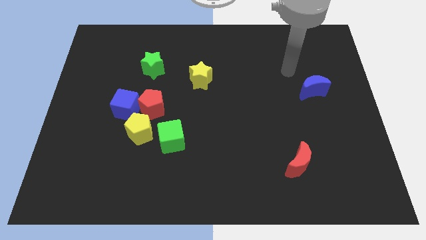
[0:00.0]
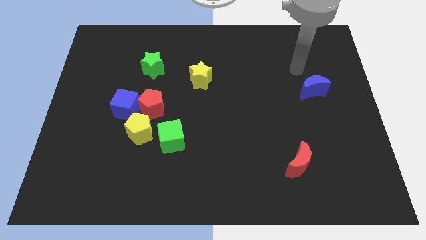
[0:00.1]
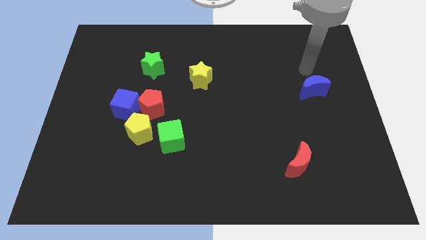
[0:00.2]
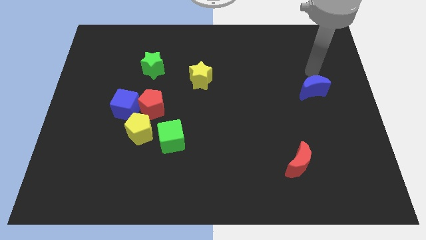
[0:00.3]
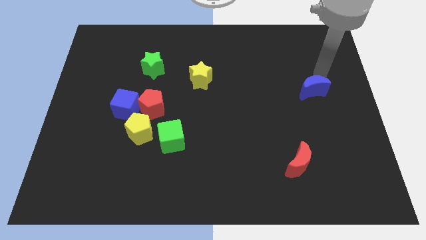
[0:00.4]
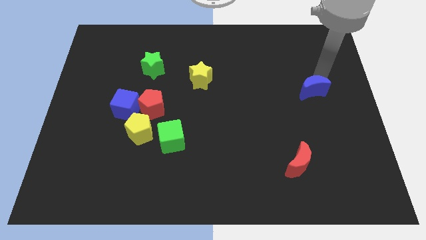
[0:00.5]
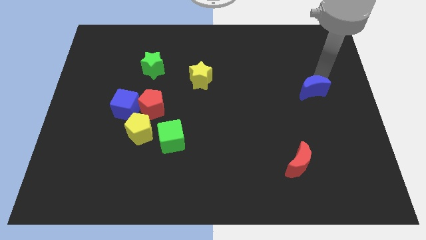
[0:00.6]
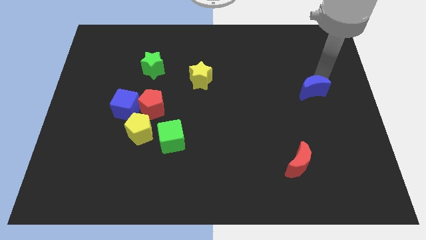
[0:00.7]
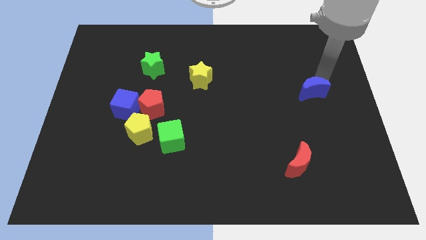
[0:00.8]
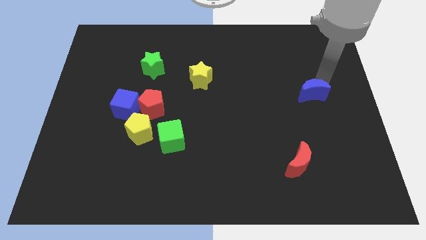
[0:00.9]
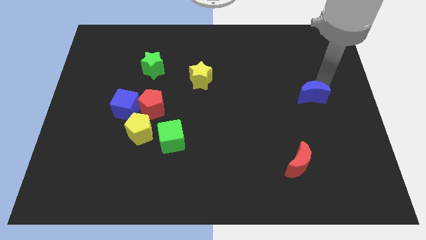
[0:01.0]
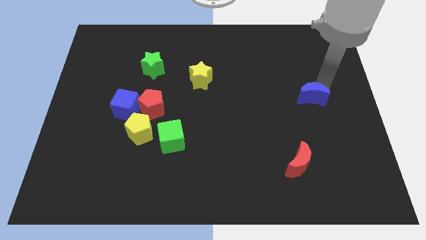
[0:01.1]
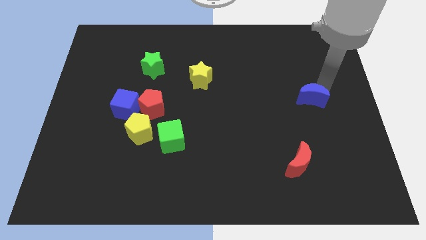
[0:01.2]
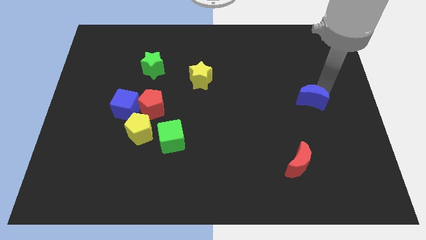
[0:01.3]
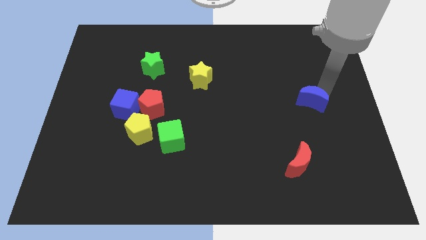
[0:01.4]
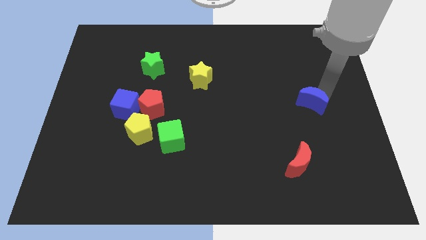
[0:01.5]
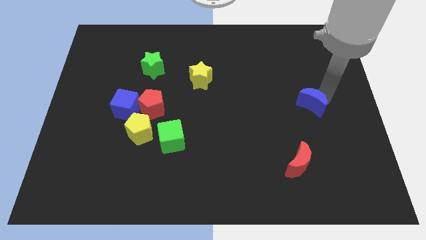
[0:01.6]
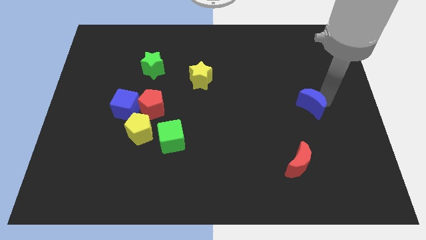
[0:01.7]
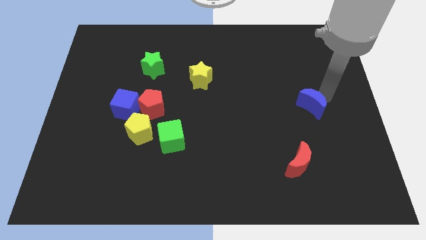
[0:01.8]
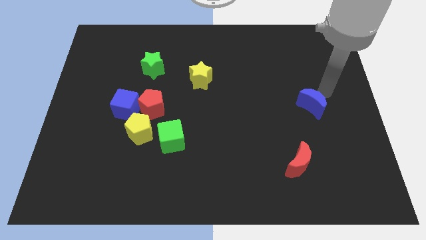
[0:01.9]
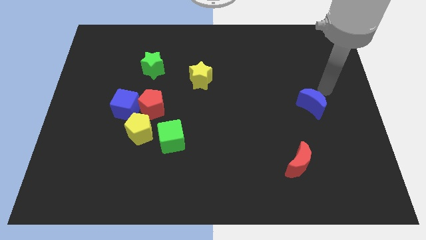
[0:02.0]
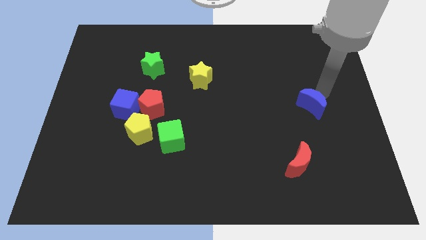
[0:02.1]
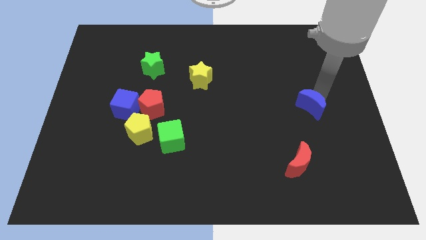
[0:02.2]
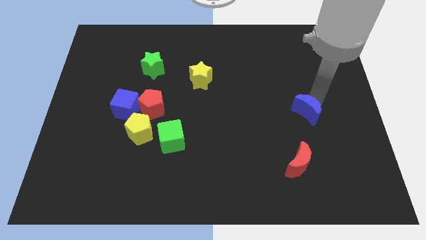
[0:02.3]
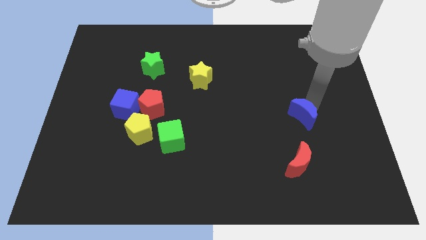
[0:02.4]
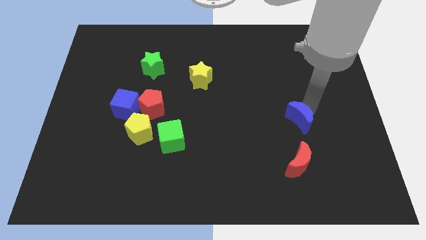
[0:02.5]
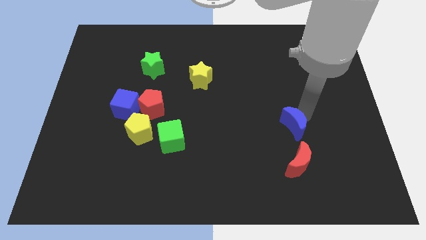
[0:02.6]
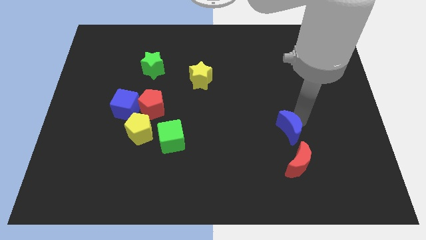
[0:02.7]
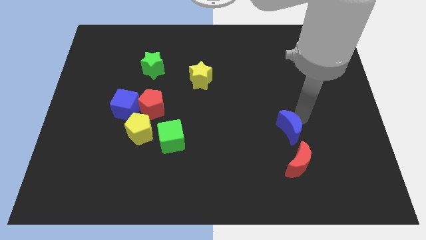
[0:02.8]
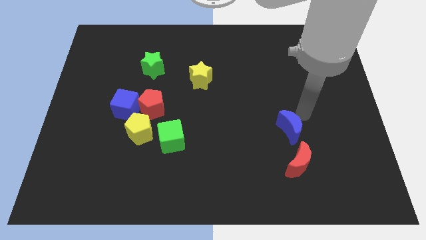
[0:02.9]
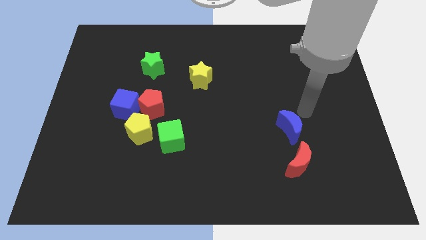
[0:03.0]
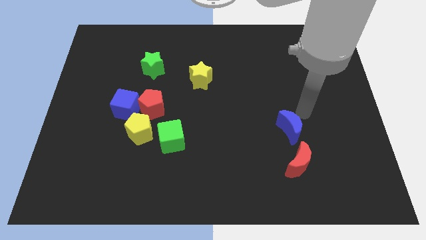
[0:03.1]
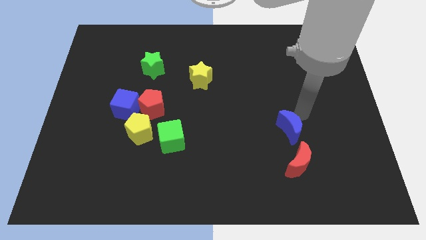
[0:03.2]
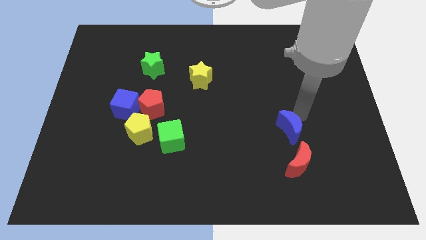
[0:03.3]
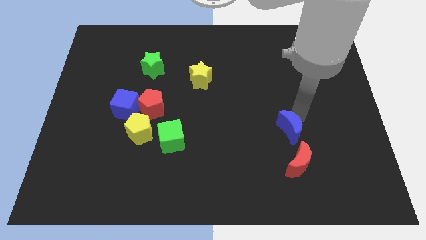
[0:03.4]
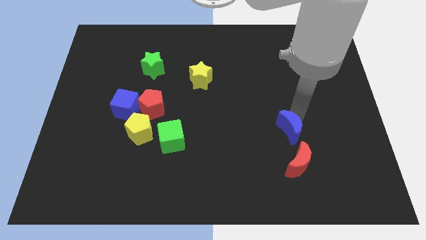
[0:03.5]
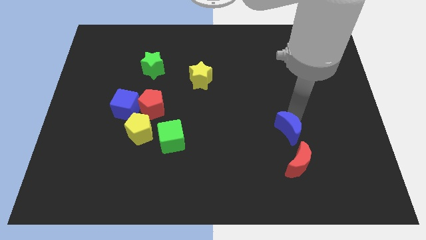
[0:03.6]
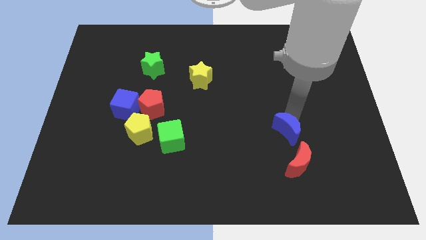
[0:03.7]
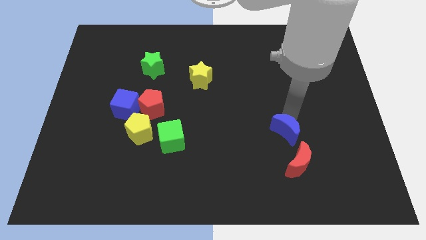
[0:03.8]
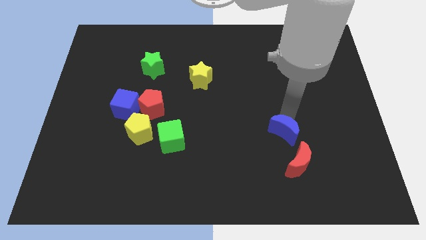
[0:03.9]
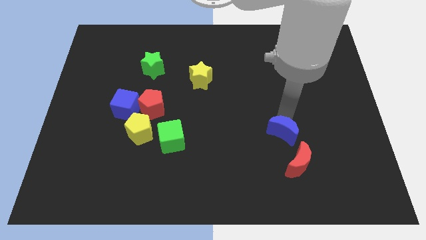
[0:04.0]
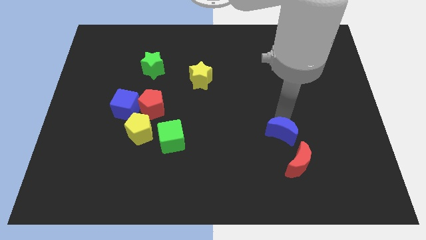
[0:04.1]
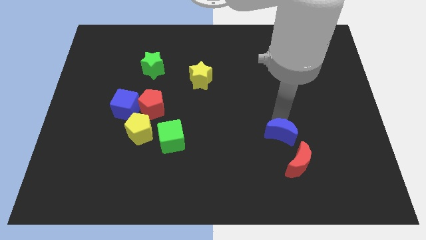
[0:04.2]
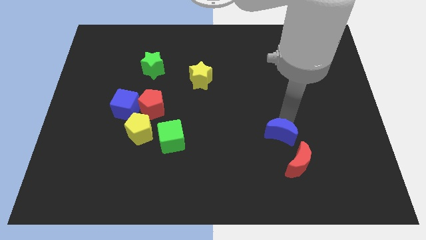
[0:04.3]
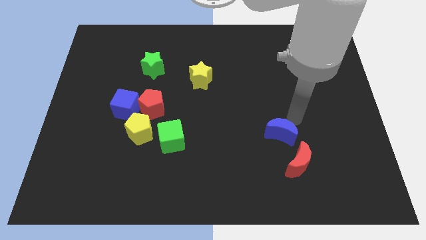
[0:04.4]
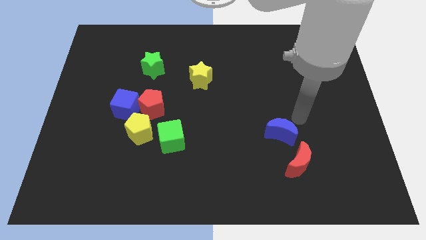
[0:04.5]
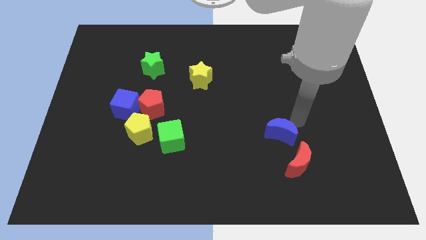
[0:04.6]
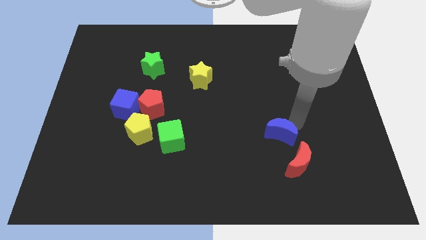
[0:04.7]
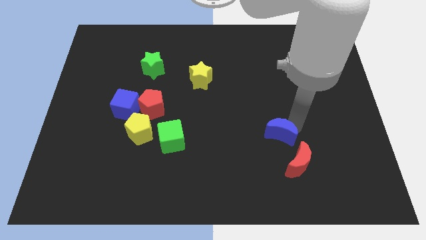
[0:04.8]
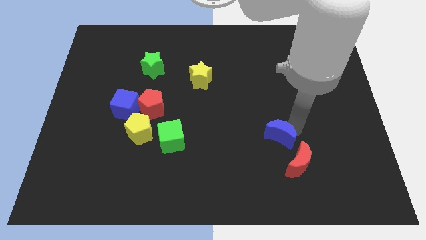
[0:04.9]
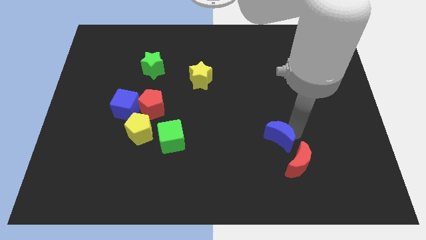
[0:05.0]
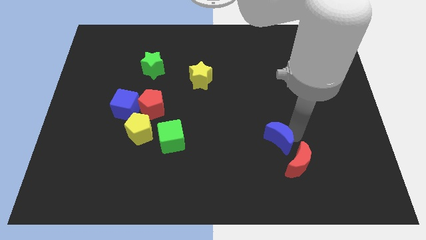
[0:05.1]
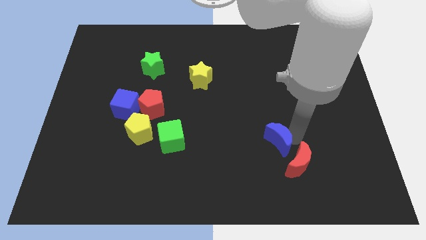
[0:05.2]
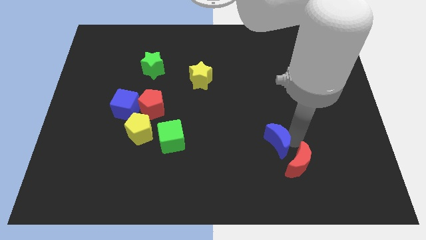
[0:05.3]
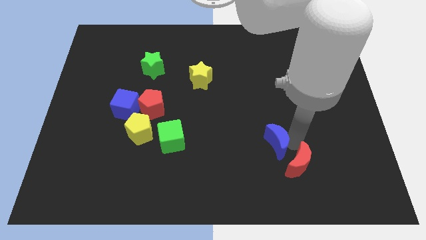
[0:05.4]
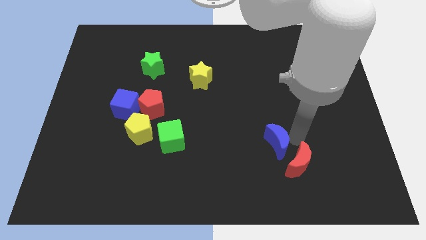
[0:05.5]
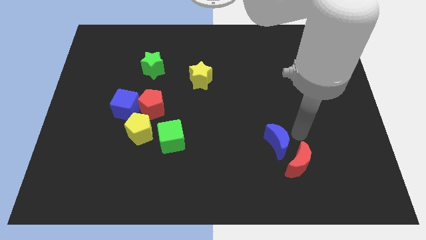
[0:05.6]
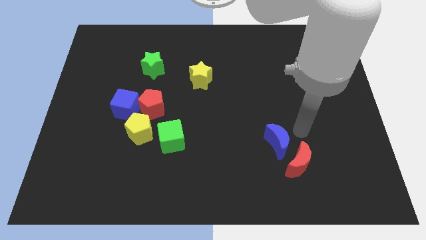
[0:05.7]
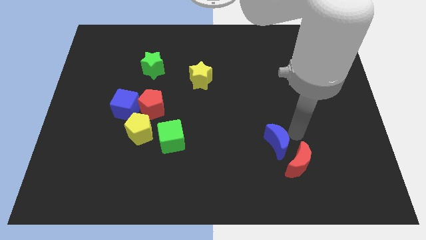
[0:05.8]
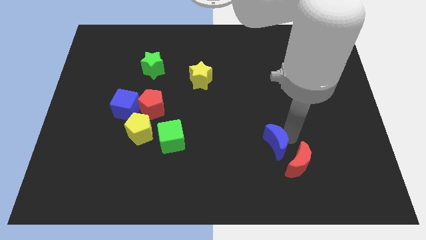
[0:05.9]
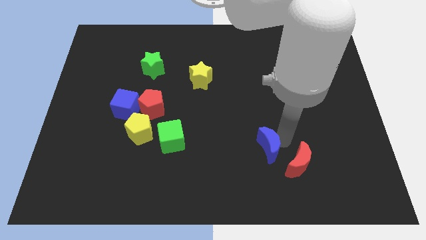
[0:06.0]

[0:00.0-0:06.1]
move the blue moon down and then left

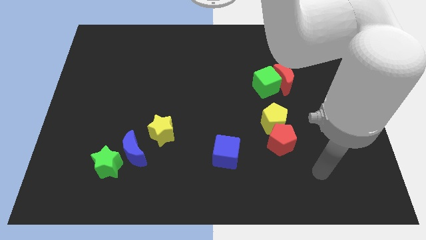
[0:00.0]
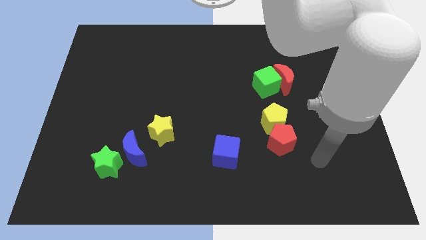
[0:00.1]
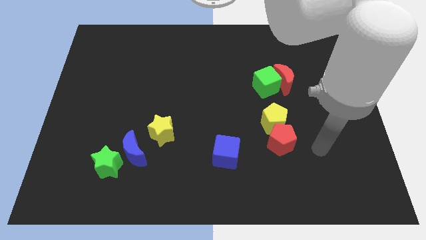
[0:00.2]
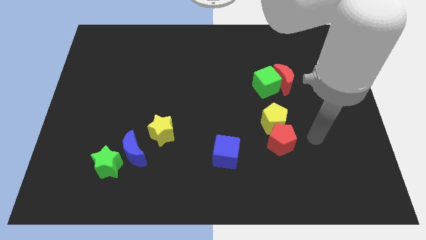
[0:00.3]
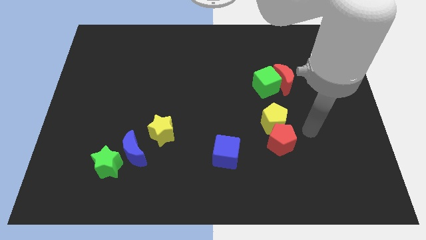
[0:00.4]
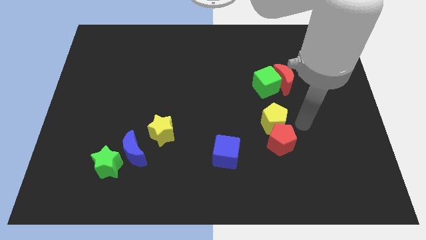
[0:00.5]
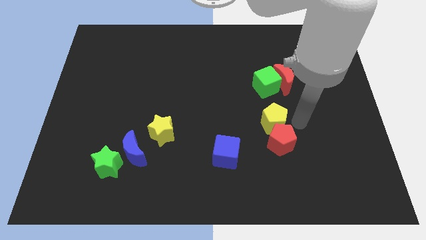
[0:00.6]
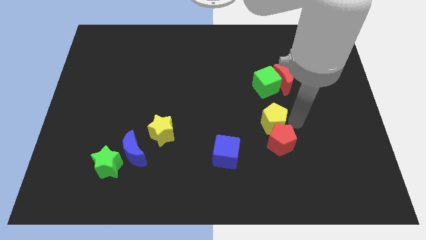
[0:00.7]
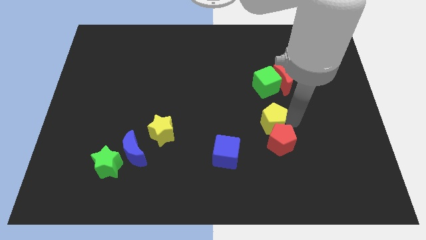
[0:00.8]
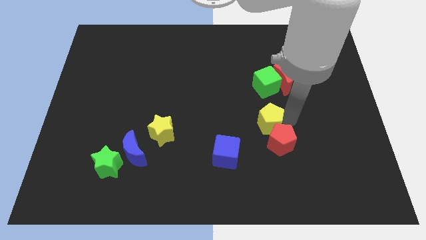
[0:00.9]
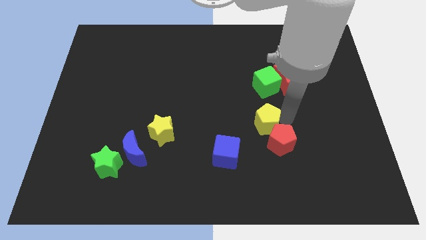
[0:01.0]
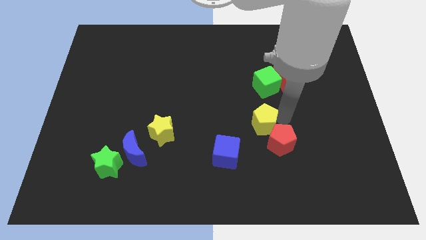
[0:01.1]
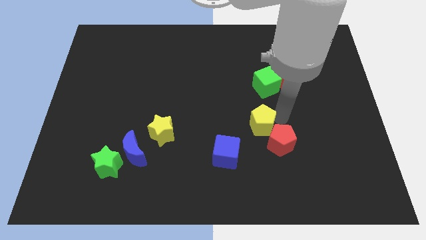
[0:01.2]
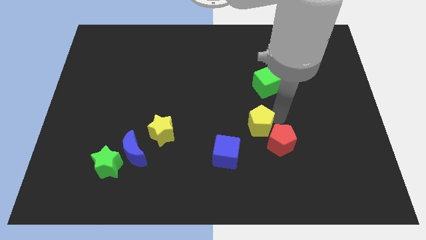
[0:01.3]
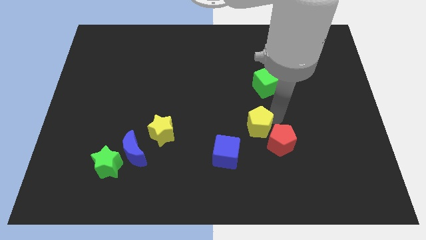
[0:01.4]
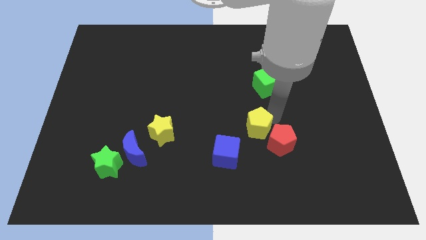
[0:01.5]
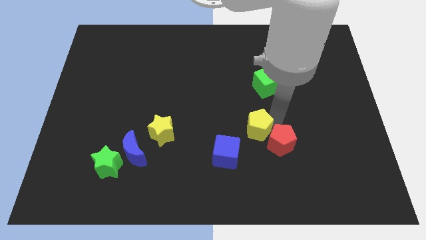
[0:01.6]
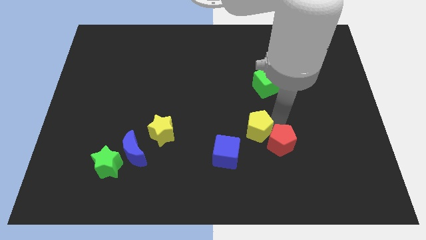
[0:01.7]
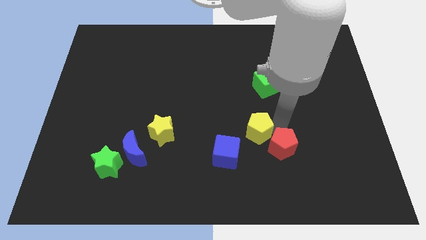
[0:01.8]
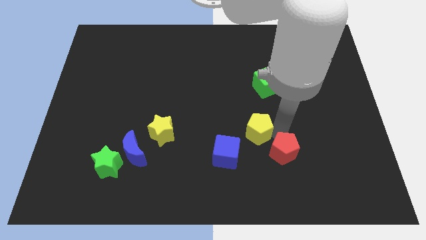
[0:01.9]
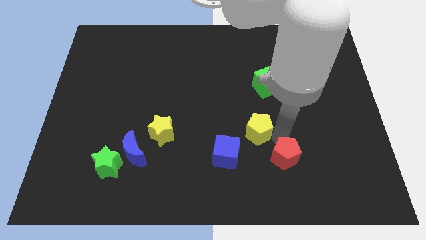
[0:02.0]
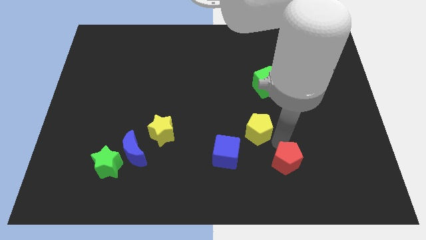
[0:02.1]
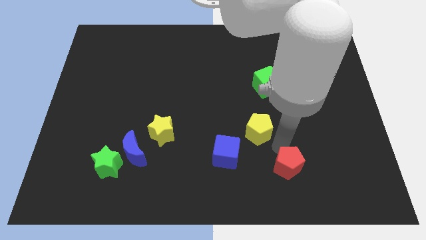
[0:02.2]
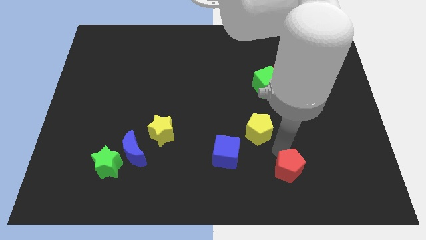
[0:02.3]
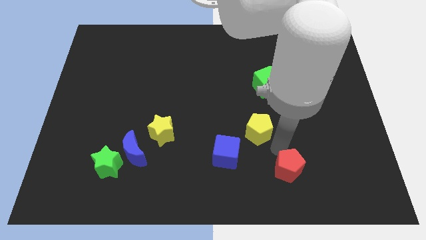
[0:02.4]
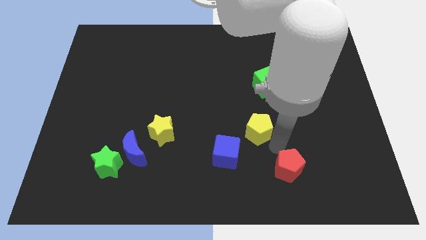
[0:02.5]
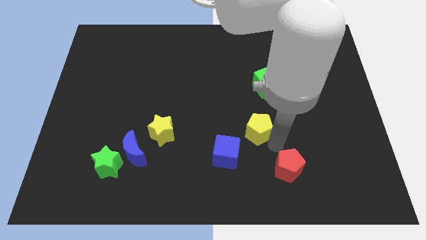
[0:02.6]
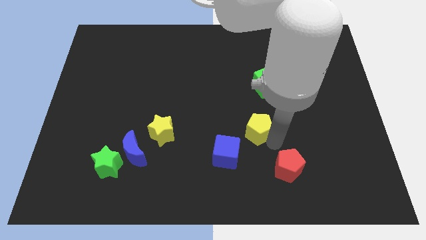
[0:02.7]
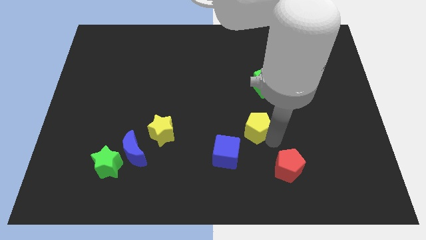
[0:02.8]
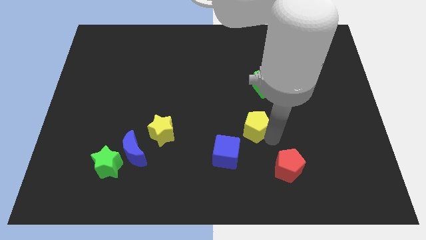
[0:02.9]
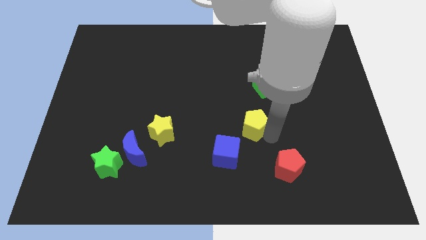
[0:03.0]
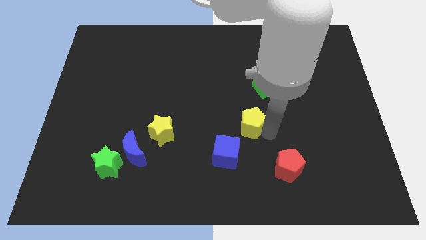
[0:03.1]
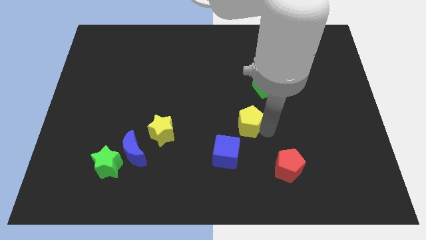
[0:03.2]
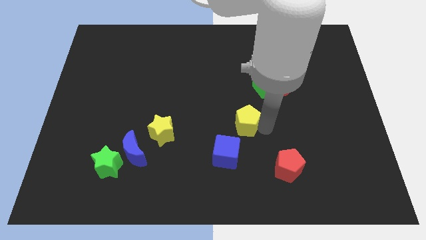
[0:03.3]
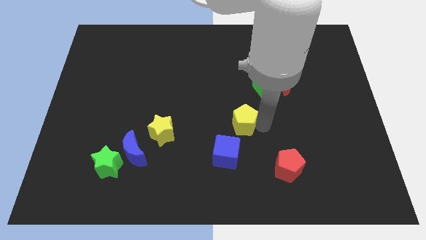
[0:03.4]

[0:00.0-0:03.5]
slightly slide the yellow pentagon left
